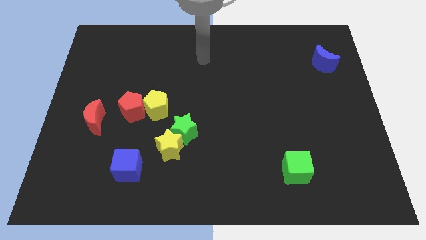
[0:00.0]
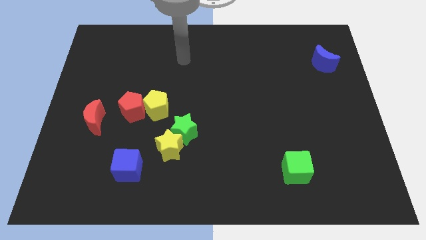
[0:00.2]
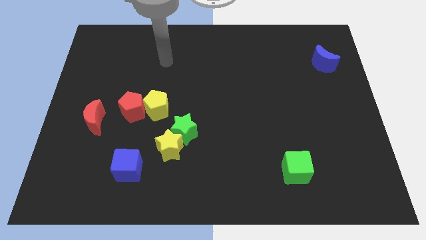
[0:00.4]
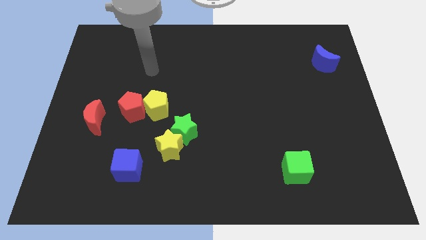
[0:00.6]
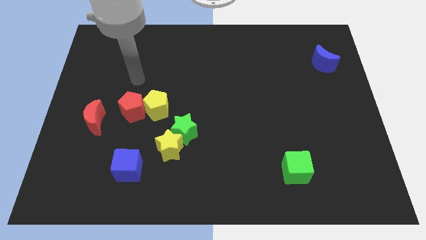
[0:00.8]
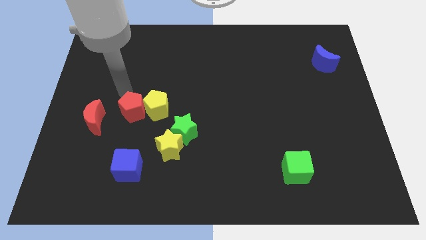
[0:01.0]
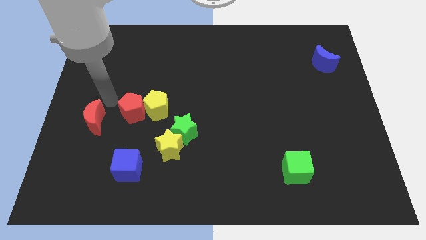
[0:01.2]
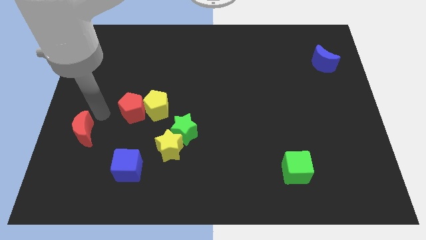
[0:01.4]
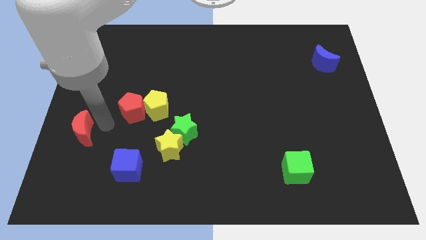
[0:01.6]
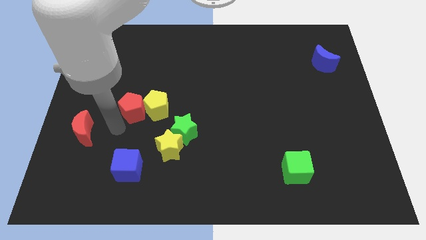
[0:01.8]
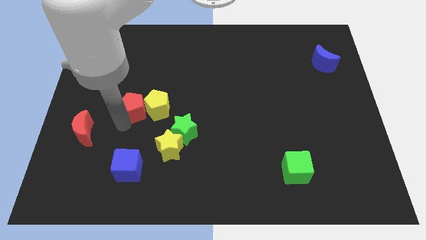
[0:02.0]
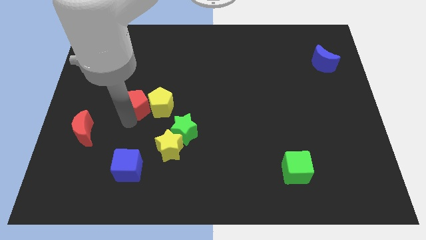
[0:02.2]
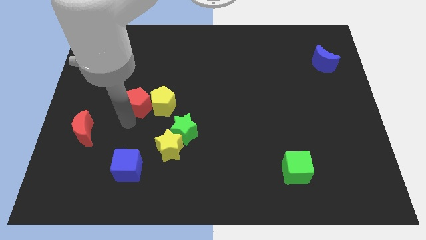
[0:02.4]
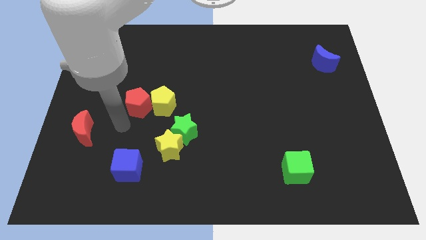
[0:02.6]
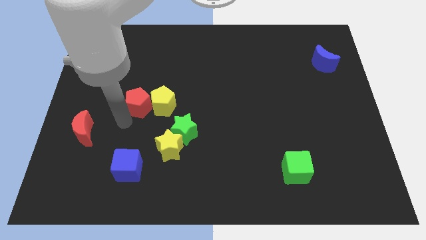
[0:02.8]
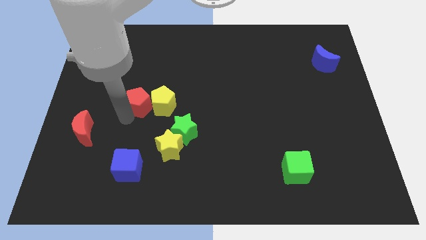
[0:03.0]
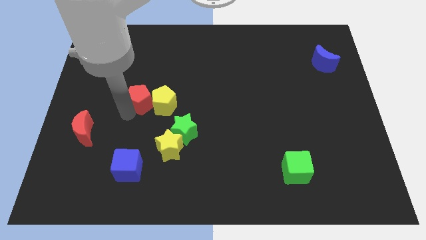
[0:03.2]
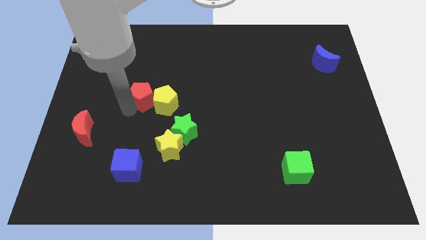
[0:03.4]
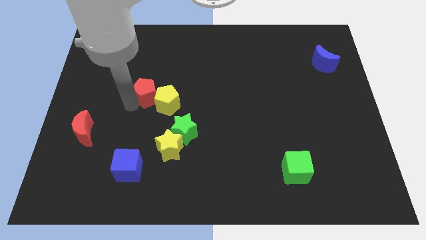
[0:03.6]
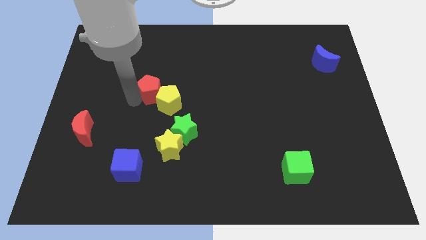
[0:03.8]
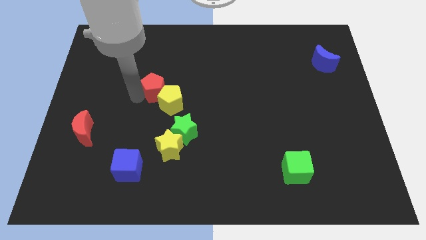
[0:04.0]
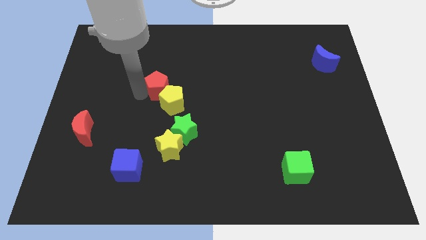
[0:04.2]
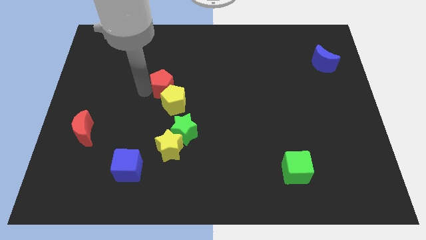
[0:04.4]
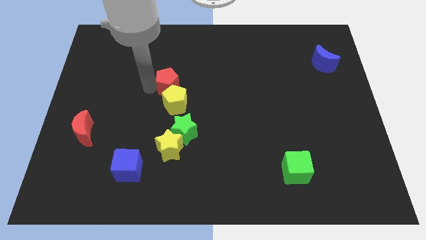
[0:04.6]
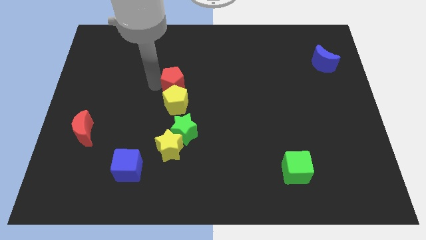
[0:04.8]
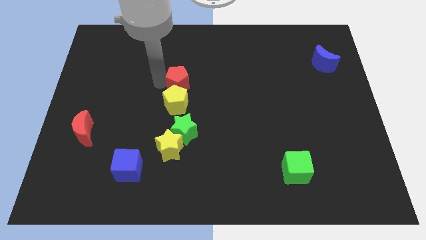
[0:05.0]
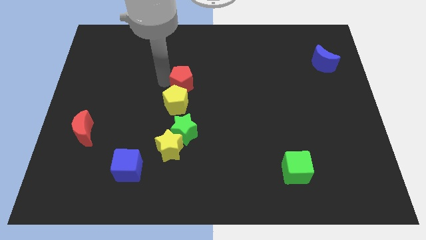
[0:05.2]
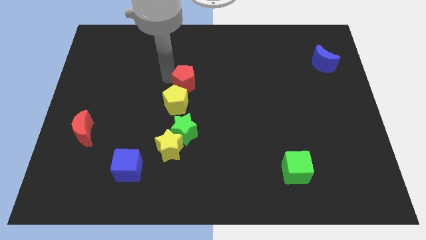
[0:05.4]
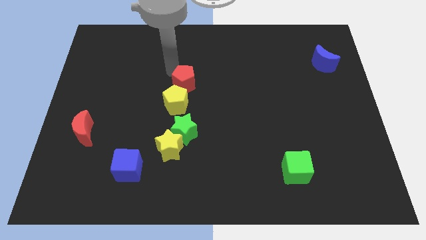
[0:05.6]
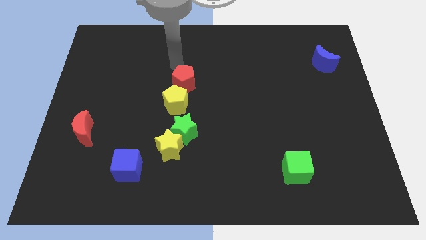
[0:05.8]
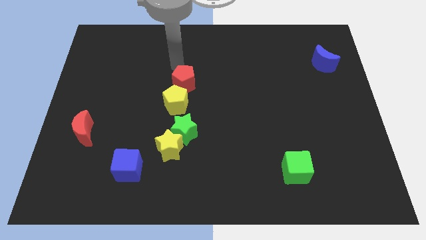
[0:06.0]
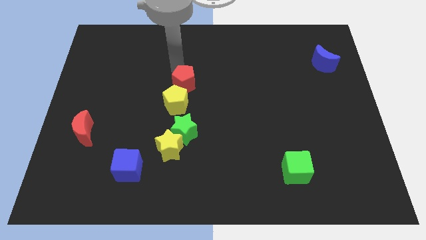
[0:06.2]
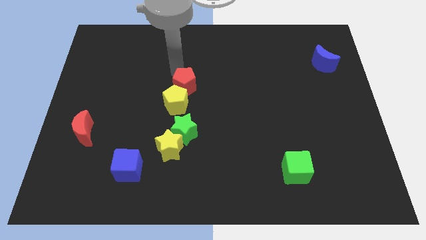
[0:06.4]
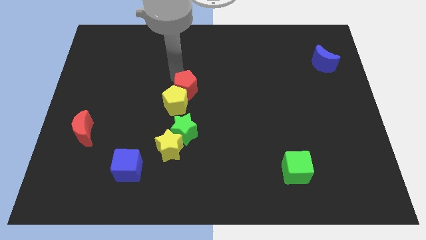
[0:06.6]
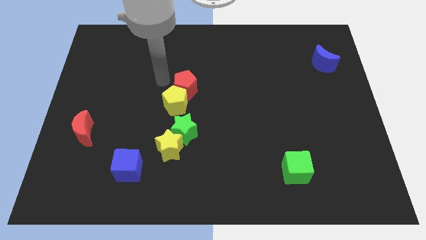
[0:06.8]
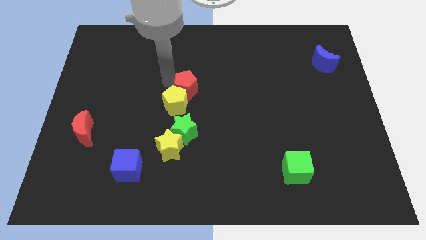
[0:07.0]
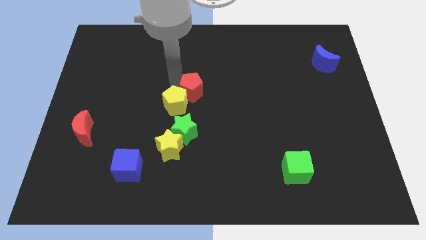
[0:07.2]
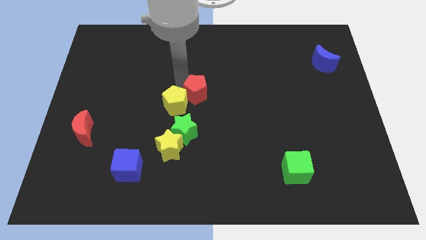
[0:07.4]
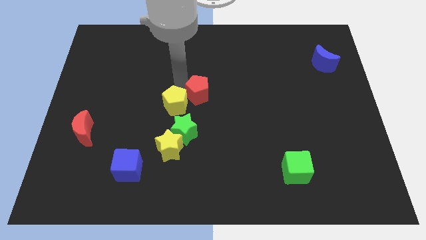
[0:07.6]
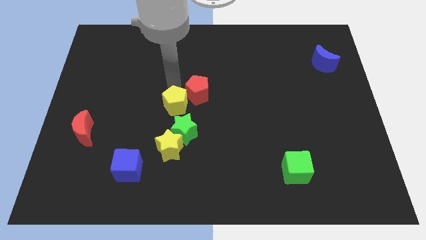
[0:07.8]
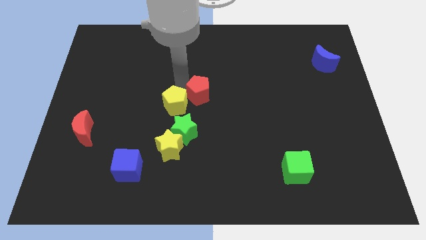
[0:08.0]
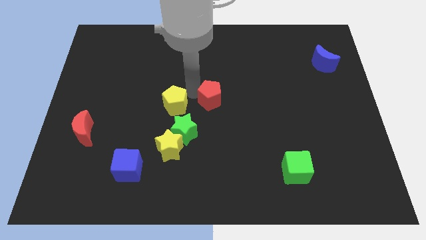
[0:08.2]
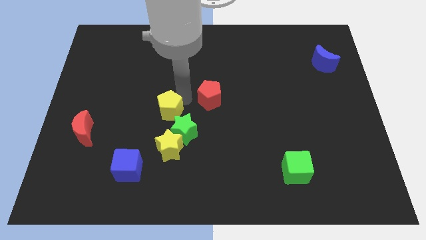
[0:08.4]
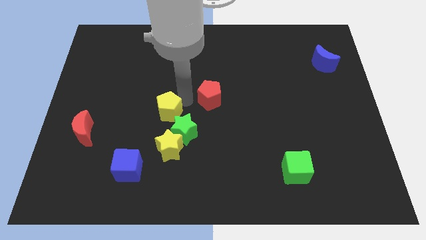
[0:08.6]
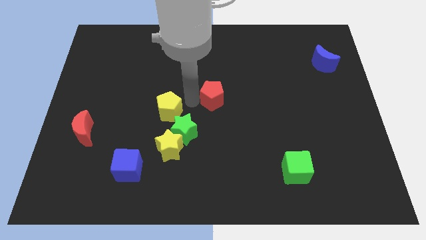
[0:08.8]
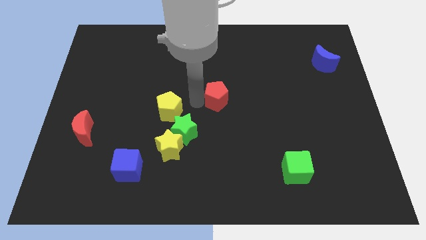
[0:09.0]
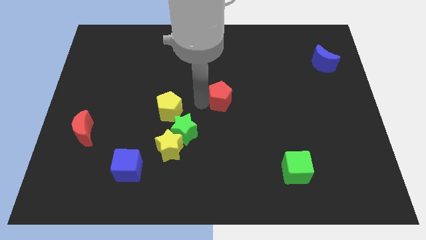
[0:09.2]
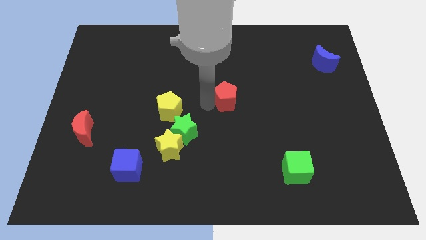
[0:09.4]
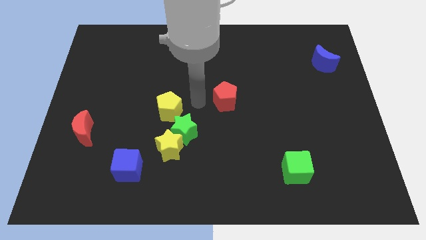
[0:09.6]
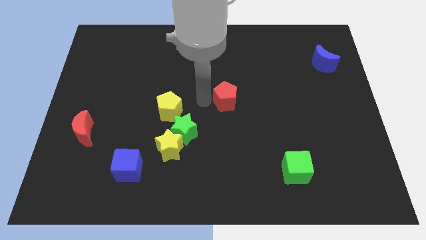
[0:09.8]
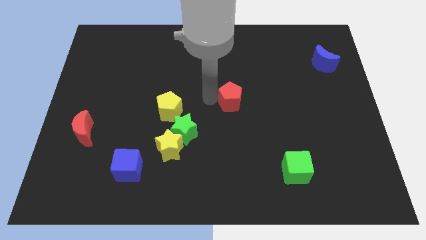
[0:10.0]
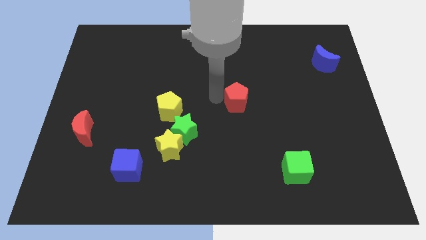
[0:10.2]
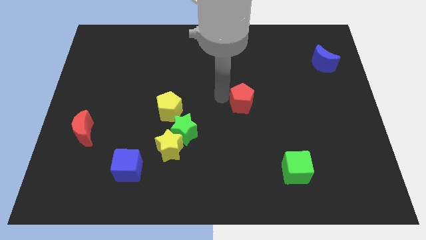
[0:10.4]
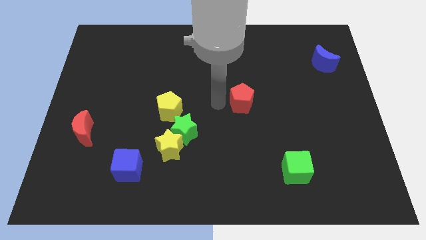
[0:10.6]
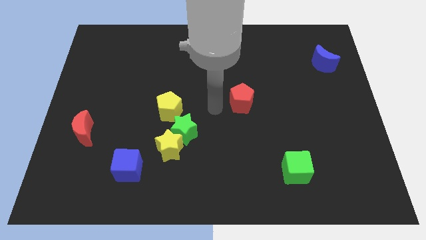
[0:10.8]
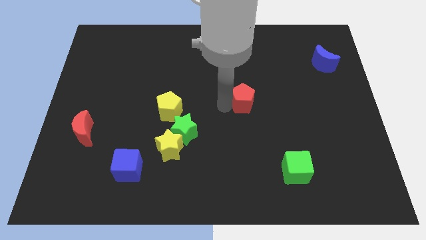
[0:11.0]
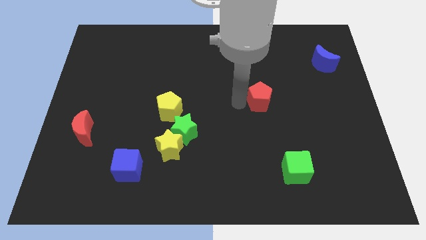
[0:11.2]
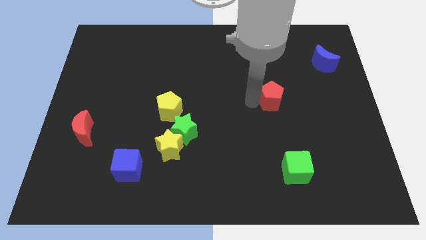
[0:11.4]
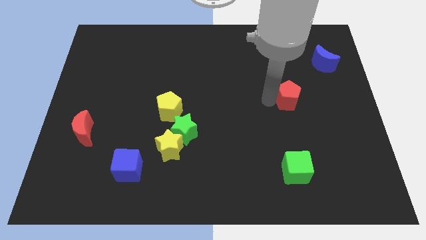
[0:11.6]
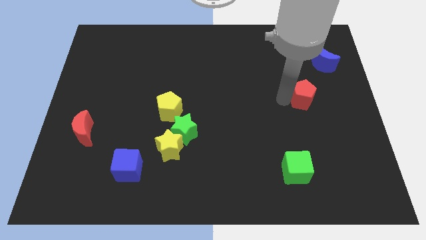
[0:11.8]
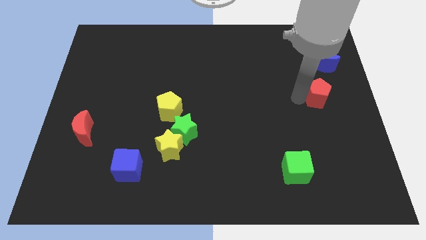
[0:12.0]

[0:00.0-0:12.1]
push the red pentagon to the bottom side of the blue moon

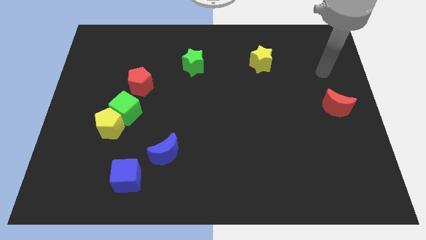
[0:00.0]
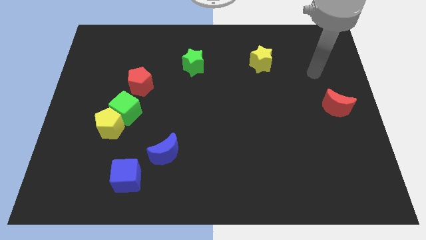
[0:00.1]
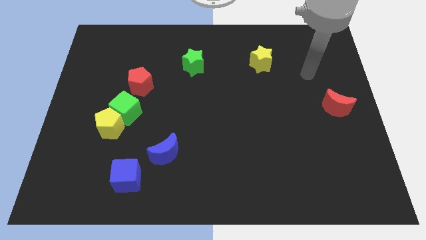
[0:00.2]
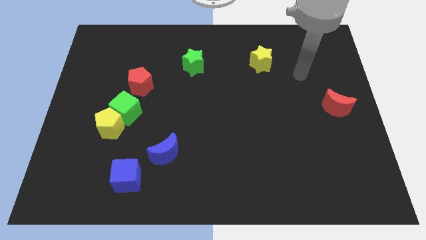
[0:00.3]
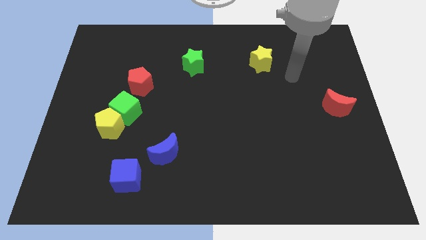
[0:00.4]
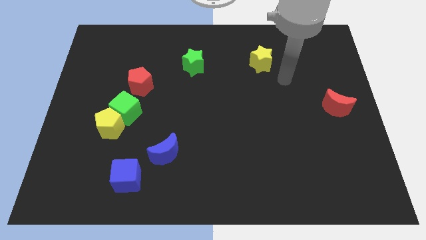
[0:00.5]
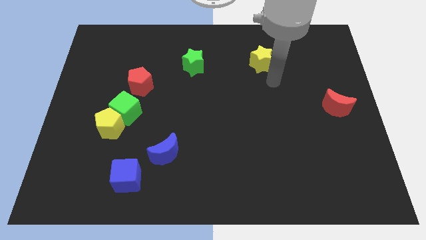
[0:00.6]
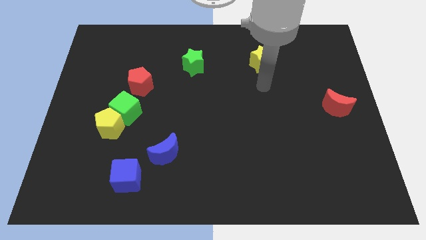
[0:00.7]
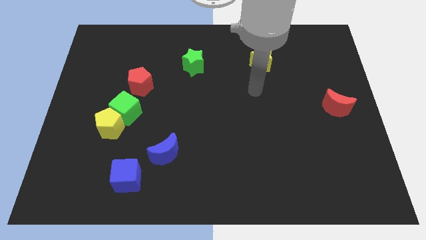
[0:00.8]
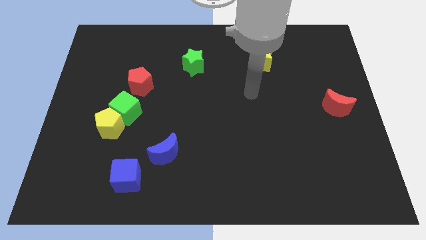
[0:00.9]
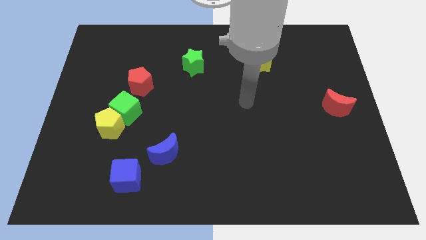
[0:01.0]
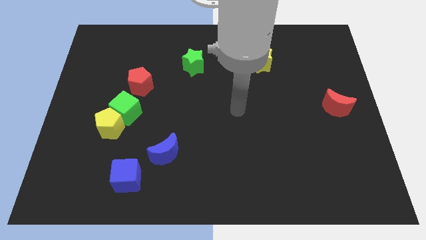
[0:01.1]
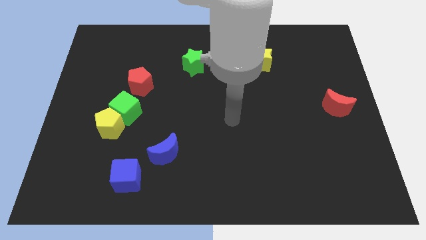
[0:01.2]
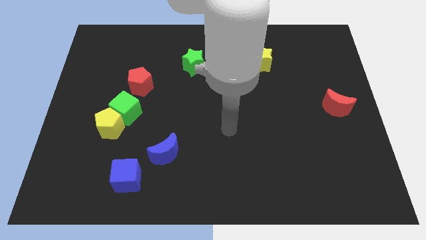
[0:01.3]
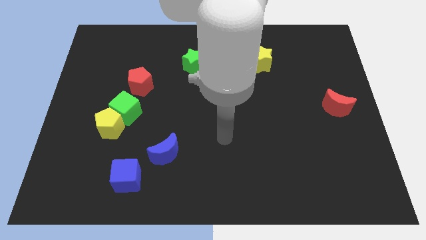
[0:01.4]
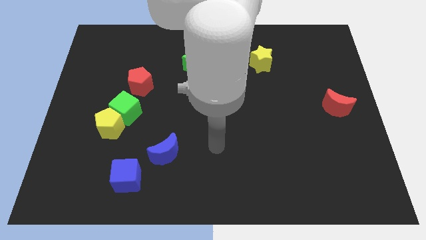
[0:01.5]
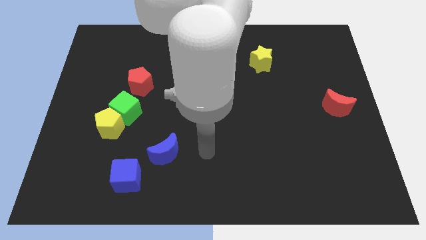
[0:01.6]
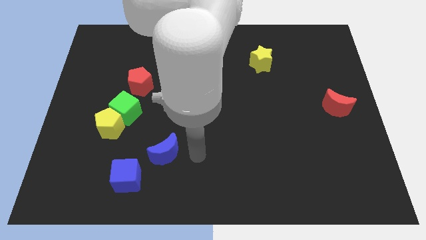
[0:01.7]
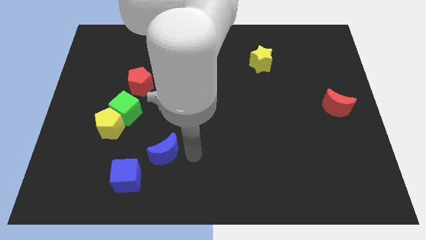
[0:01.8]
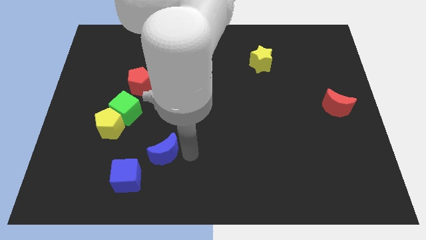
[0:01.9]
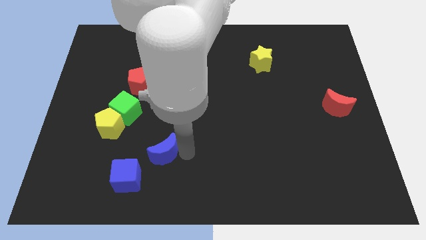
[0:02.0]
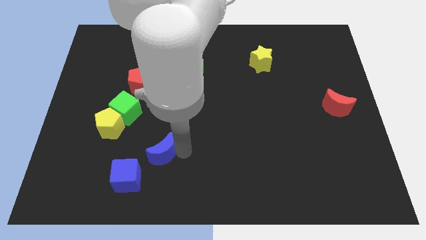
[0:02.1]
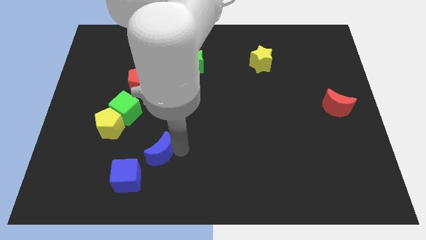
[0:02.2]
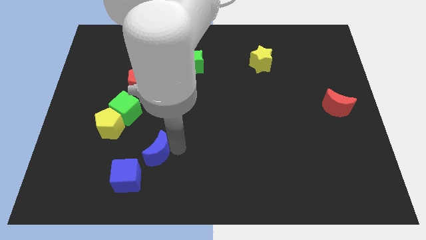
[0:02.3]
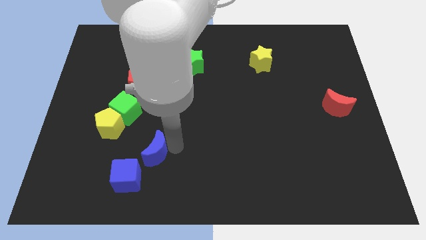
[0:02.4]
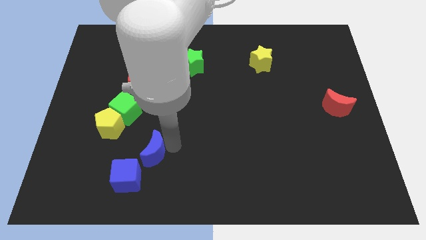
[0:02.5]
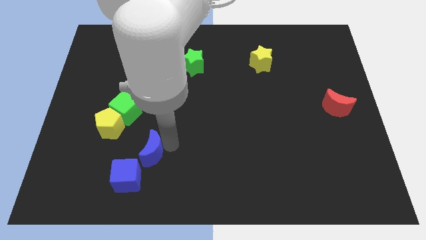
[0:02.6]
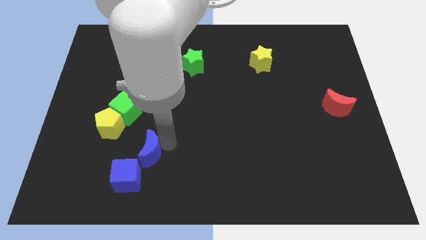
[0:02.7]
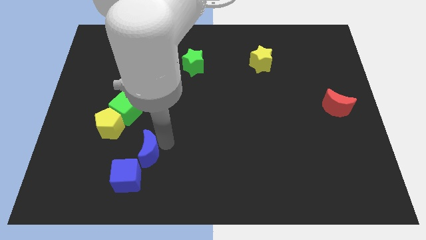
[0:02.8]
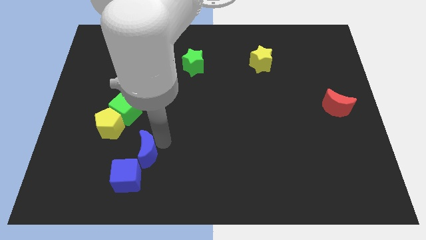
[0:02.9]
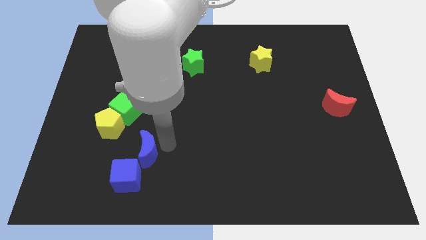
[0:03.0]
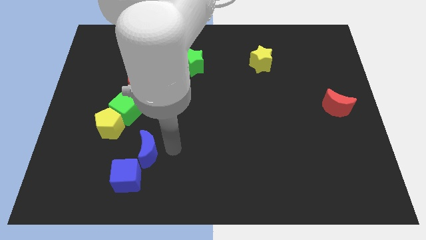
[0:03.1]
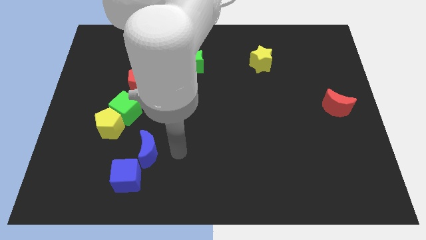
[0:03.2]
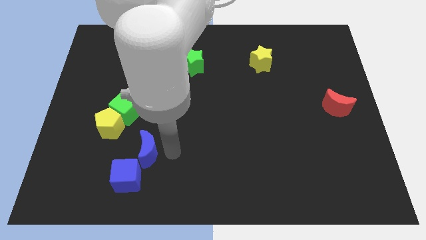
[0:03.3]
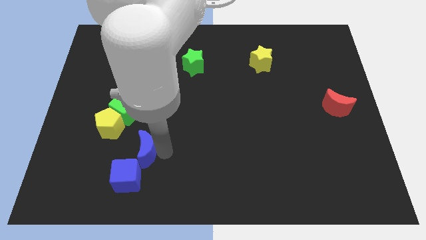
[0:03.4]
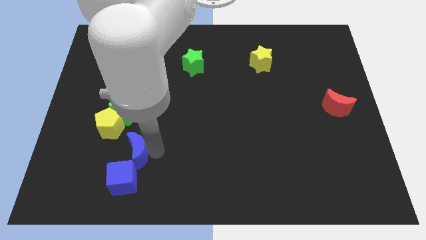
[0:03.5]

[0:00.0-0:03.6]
slide the blue moon to the bottom side of the green cube
